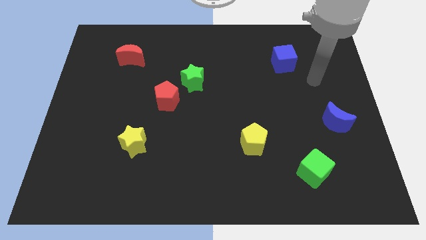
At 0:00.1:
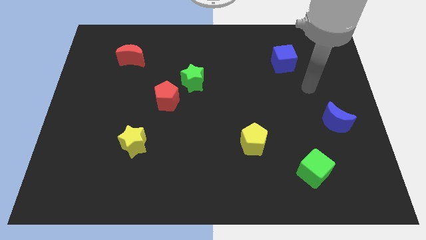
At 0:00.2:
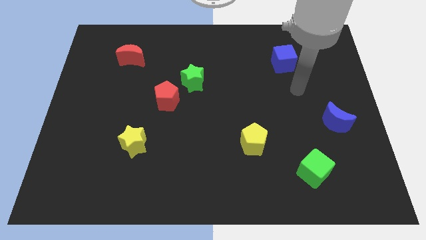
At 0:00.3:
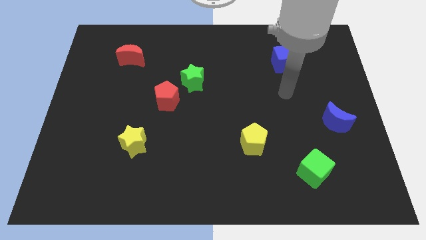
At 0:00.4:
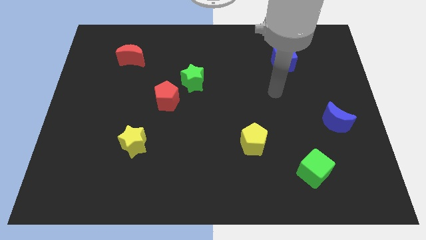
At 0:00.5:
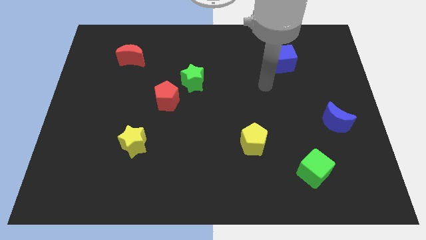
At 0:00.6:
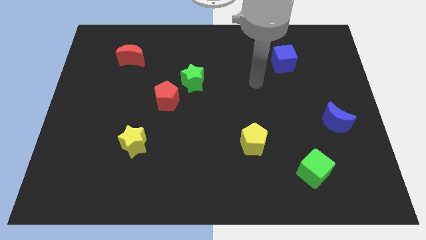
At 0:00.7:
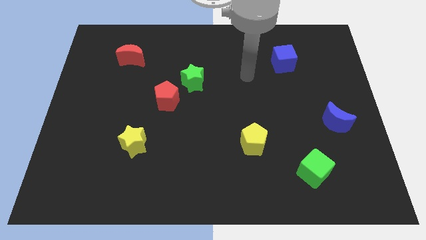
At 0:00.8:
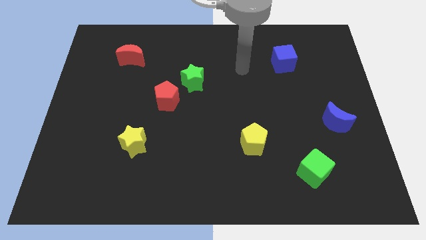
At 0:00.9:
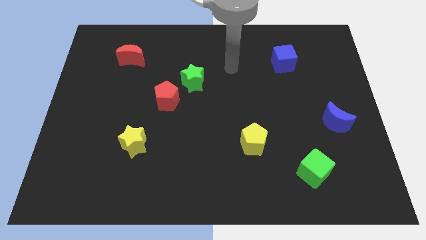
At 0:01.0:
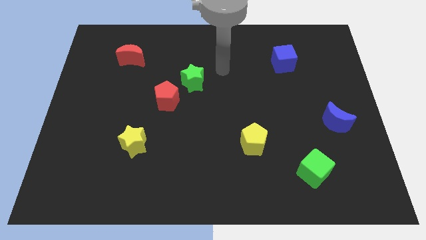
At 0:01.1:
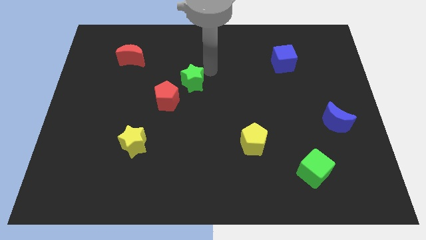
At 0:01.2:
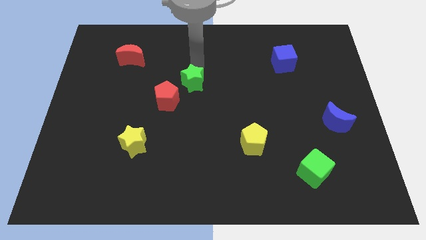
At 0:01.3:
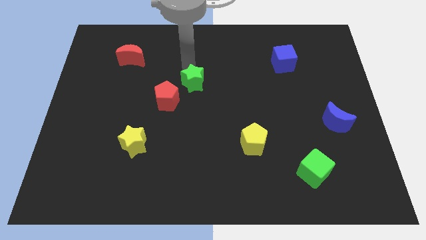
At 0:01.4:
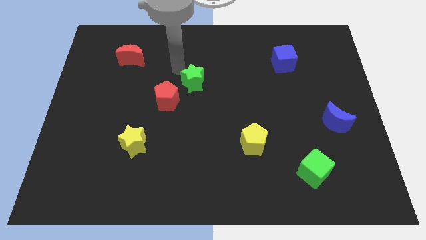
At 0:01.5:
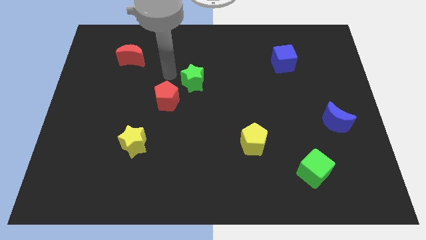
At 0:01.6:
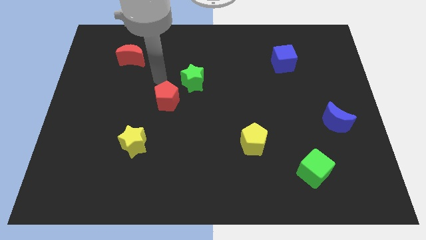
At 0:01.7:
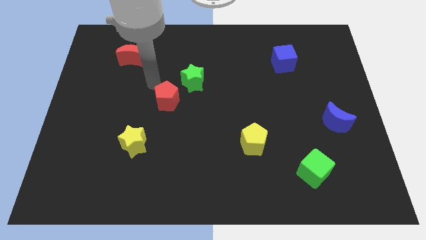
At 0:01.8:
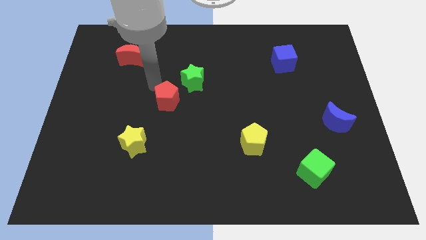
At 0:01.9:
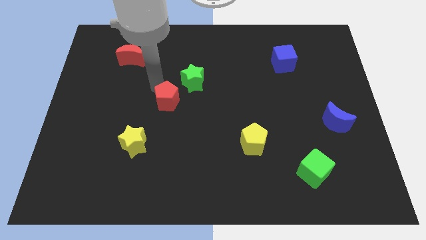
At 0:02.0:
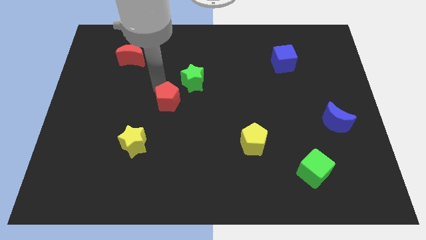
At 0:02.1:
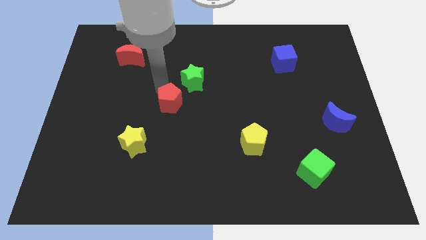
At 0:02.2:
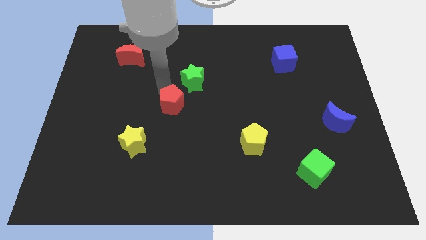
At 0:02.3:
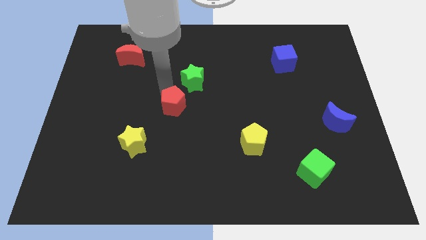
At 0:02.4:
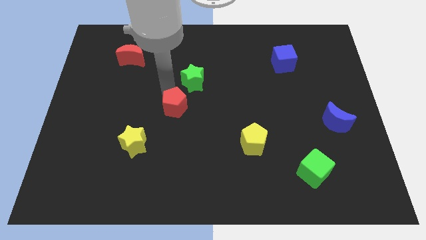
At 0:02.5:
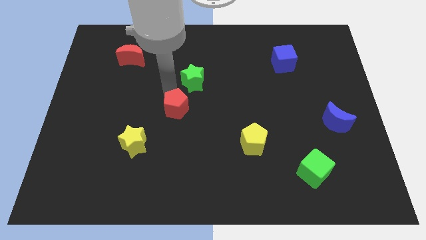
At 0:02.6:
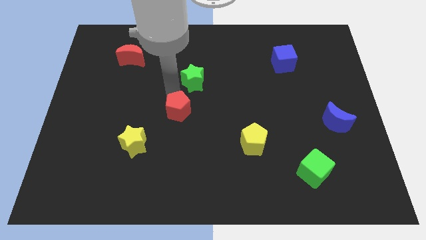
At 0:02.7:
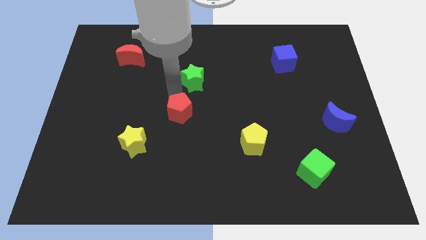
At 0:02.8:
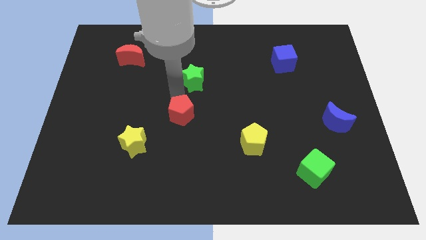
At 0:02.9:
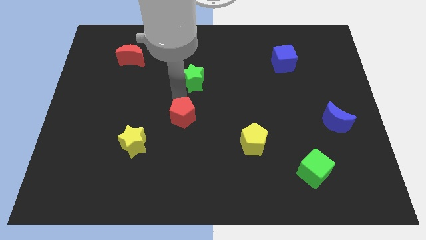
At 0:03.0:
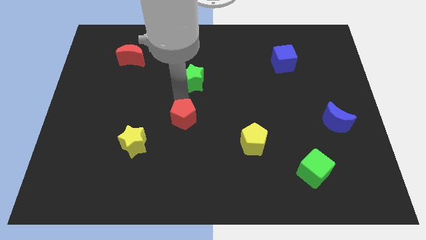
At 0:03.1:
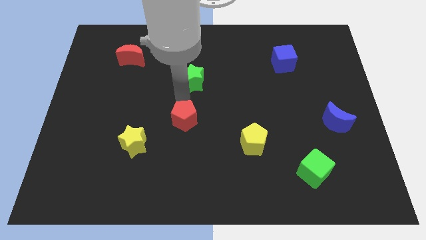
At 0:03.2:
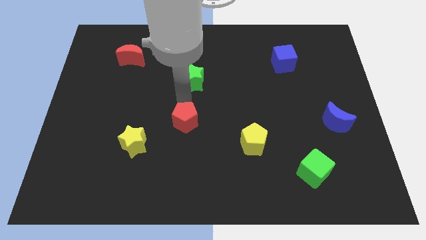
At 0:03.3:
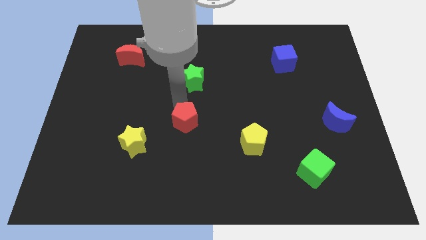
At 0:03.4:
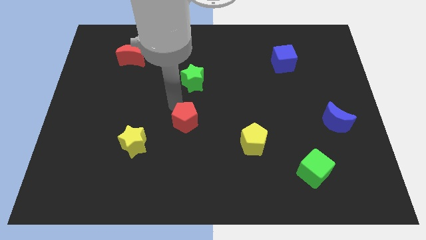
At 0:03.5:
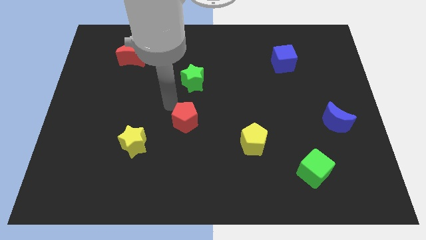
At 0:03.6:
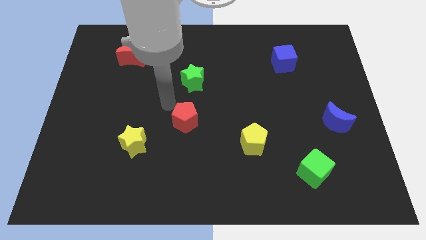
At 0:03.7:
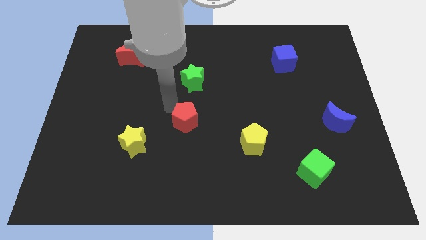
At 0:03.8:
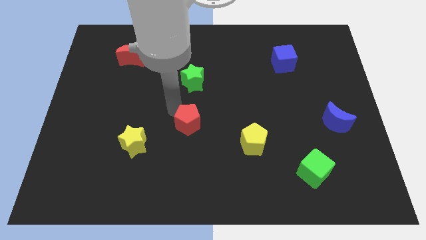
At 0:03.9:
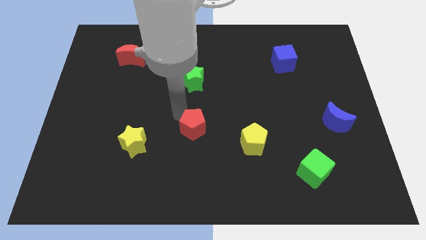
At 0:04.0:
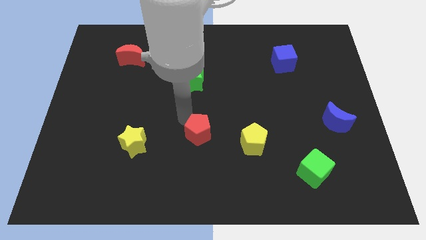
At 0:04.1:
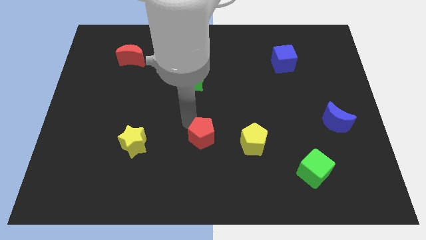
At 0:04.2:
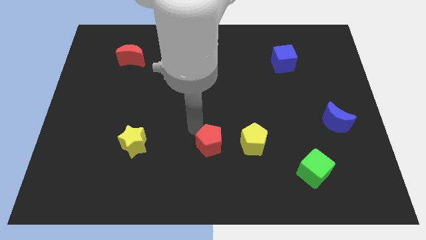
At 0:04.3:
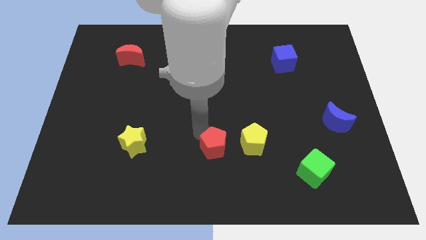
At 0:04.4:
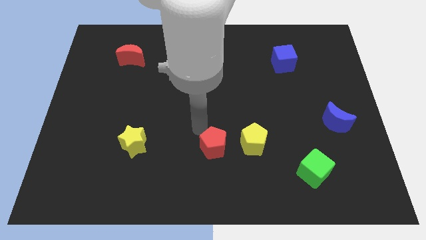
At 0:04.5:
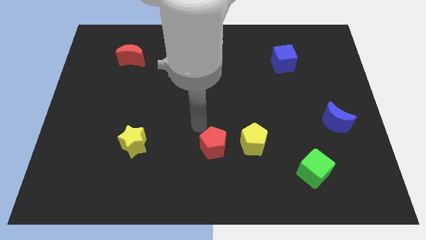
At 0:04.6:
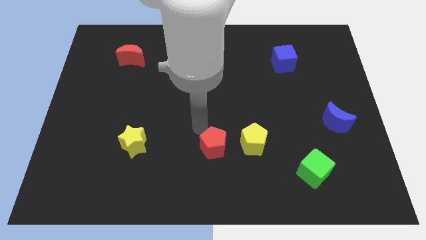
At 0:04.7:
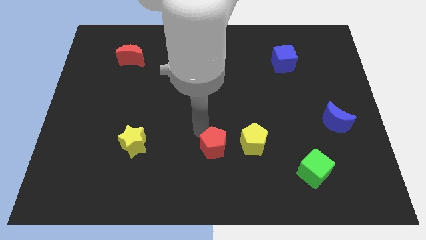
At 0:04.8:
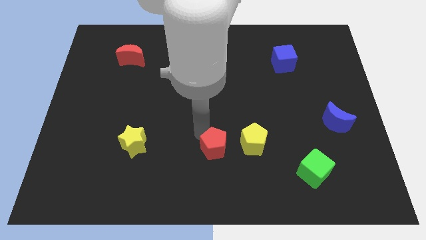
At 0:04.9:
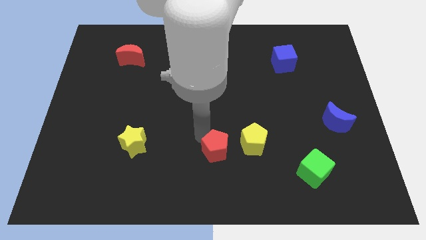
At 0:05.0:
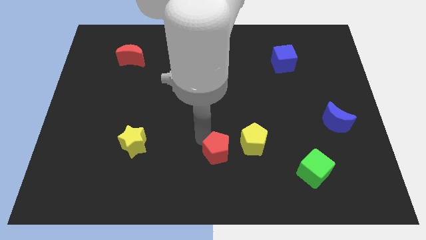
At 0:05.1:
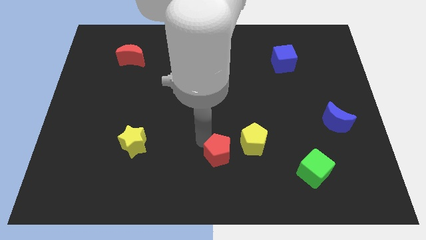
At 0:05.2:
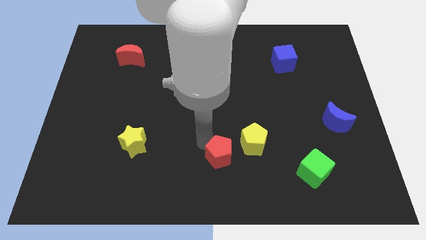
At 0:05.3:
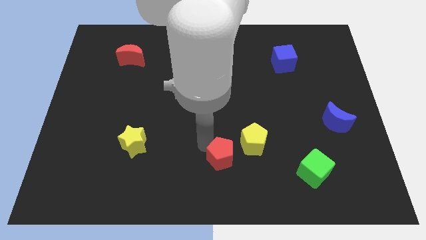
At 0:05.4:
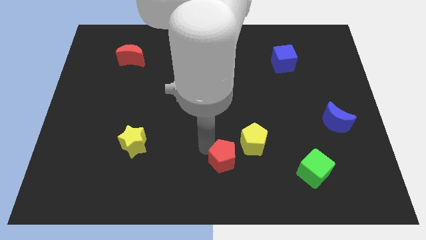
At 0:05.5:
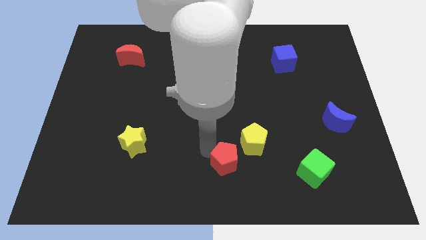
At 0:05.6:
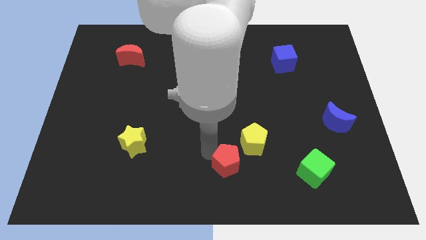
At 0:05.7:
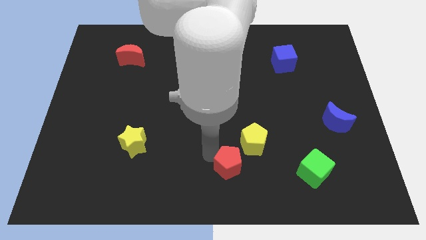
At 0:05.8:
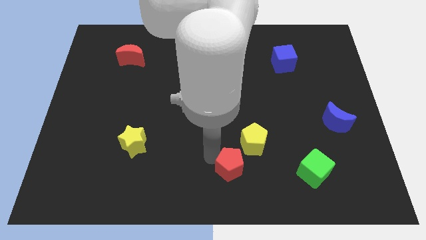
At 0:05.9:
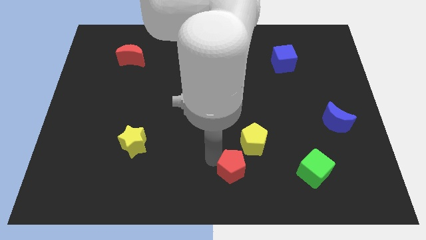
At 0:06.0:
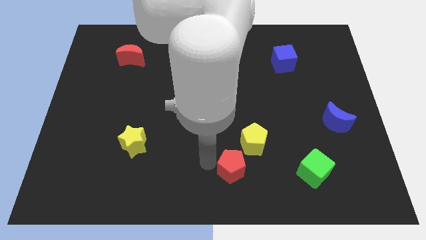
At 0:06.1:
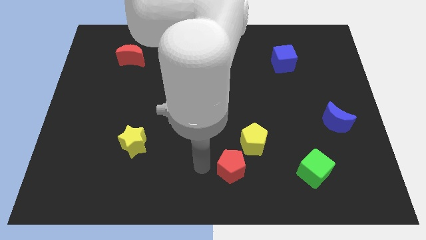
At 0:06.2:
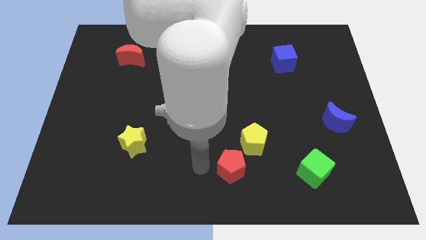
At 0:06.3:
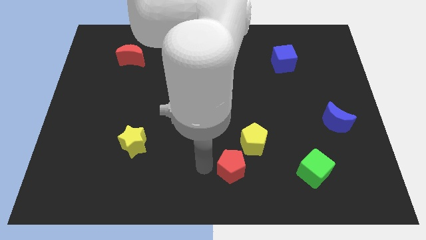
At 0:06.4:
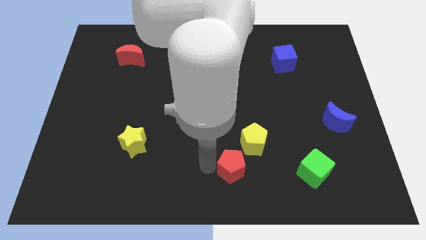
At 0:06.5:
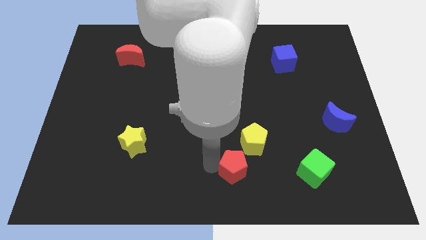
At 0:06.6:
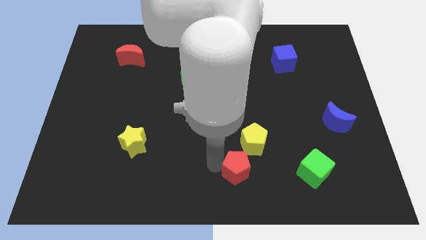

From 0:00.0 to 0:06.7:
move the red pentagon left of the green cube

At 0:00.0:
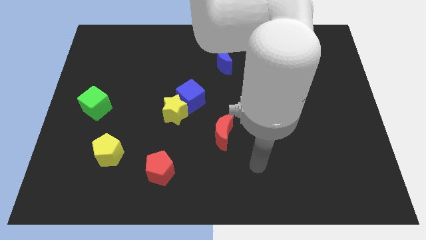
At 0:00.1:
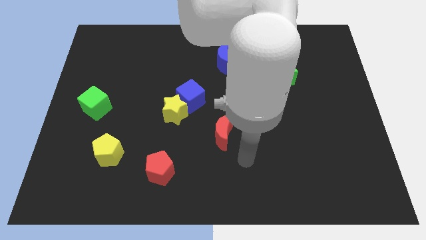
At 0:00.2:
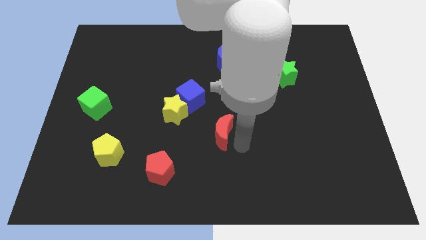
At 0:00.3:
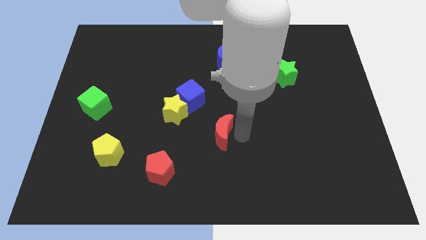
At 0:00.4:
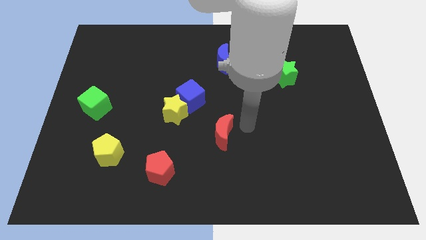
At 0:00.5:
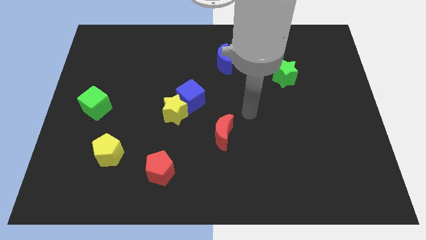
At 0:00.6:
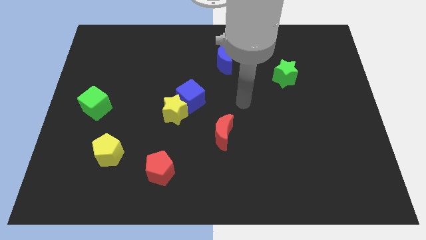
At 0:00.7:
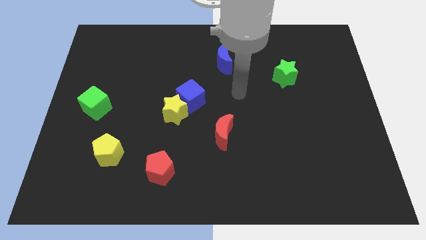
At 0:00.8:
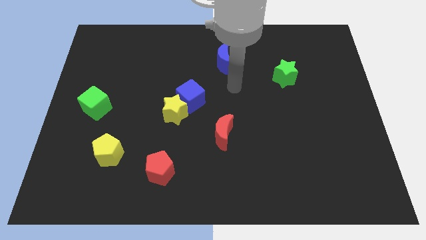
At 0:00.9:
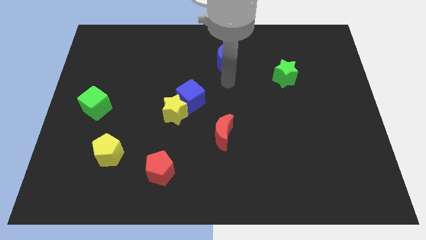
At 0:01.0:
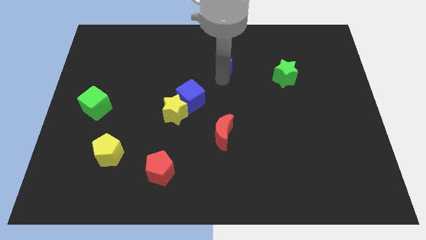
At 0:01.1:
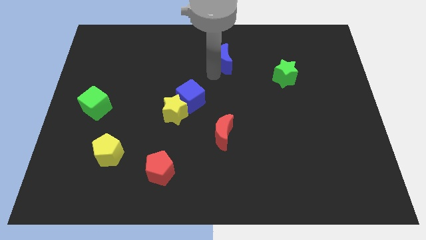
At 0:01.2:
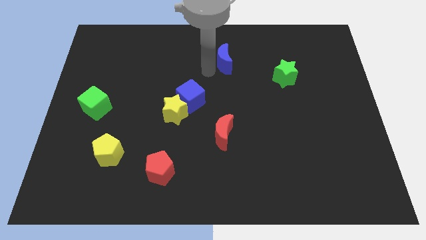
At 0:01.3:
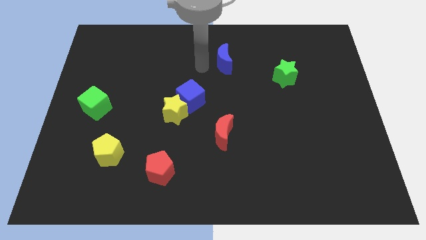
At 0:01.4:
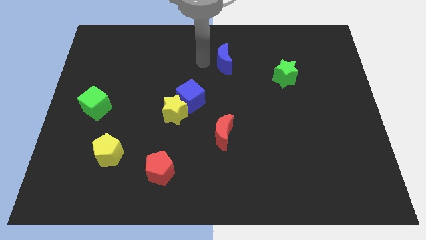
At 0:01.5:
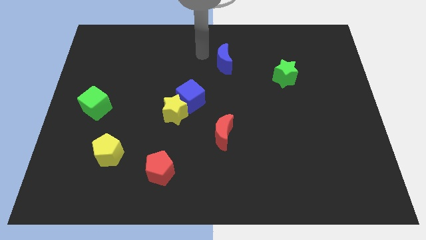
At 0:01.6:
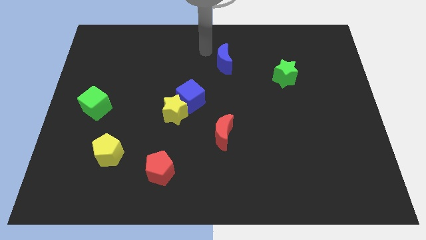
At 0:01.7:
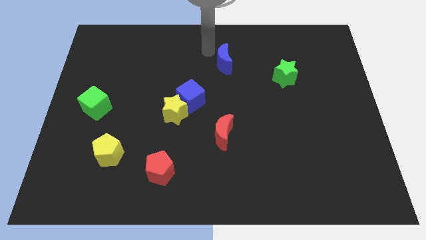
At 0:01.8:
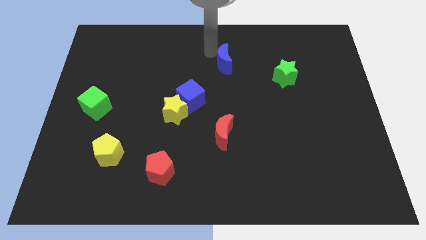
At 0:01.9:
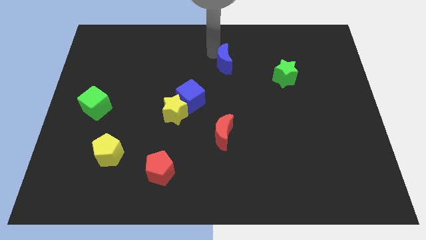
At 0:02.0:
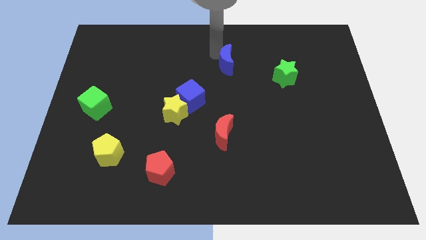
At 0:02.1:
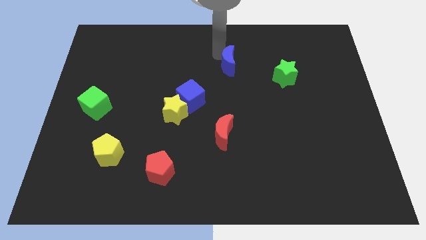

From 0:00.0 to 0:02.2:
slide the blue moon just left of the green star
